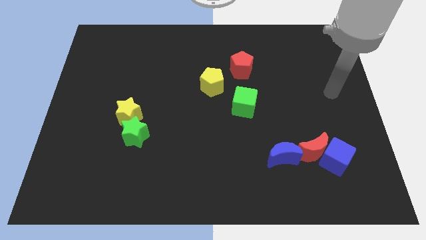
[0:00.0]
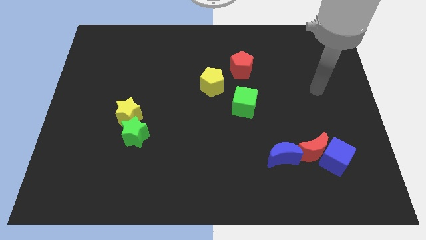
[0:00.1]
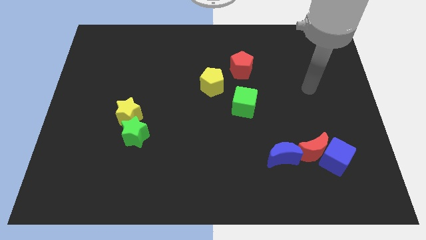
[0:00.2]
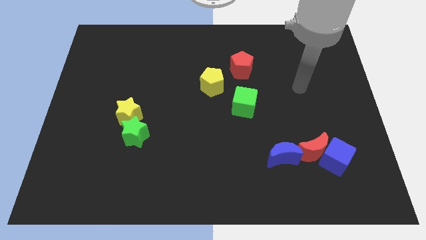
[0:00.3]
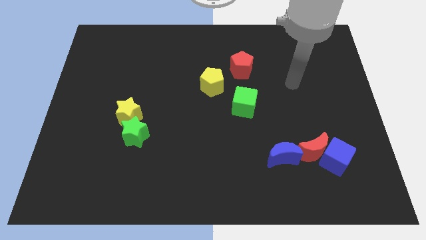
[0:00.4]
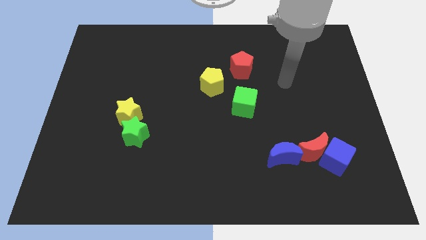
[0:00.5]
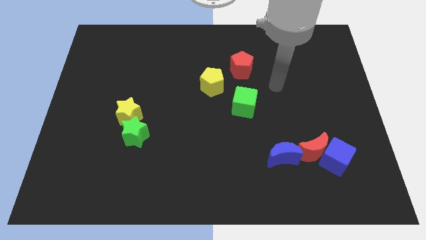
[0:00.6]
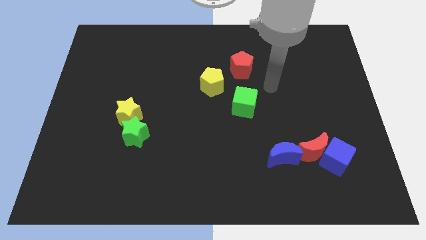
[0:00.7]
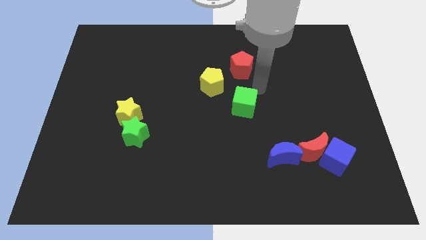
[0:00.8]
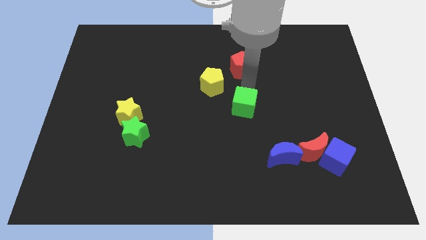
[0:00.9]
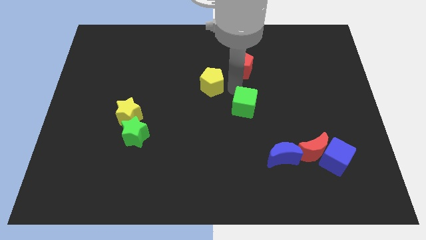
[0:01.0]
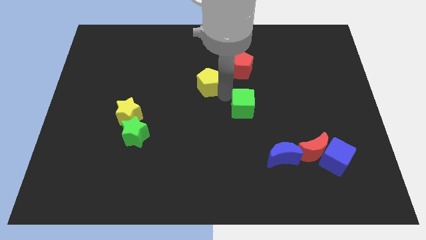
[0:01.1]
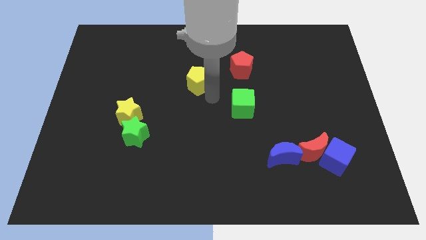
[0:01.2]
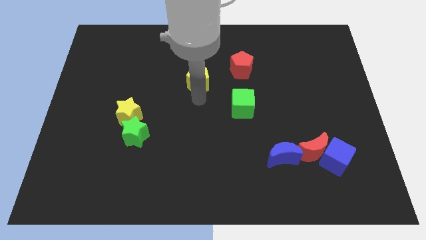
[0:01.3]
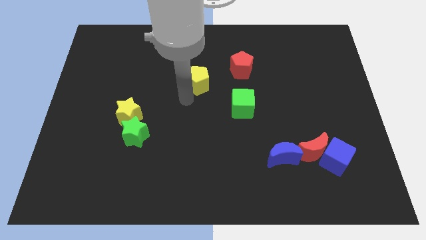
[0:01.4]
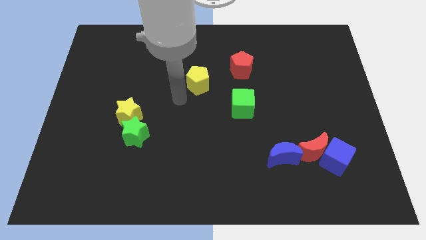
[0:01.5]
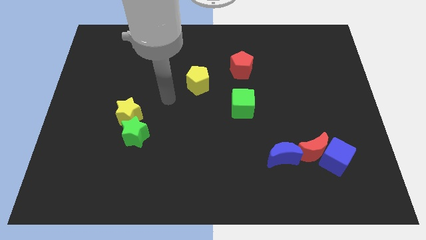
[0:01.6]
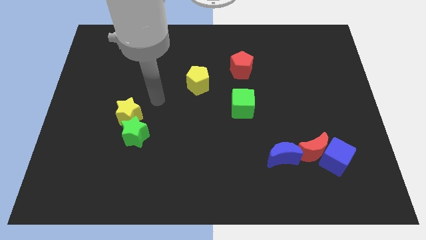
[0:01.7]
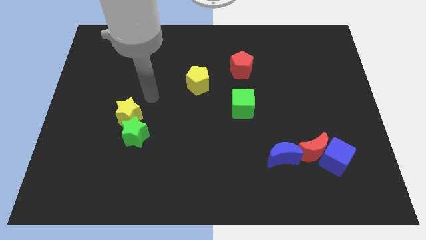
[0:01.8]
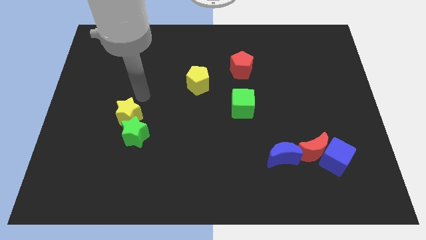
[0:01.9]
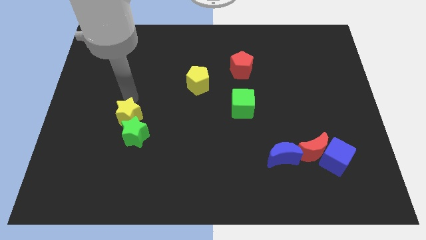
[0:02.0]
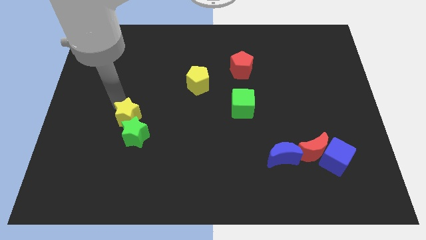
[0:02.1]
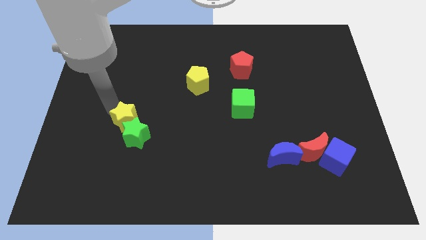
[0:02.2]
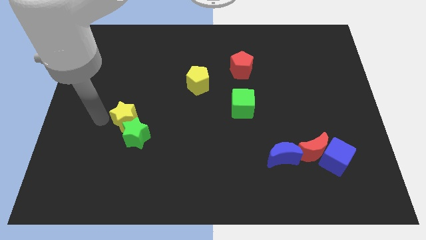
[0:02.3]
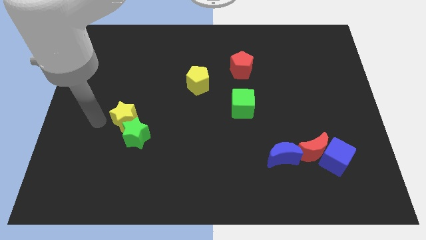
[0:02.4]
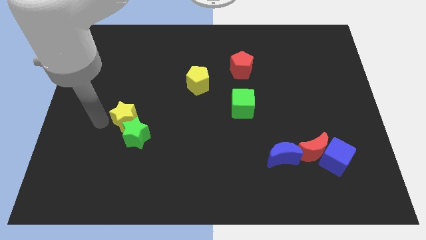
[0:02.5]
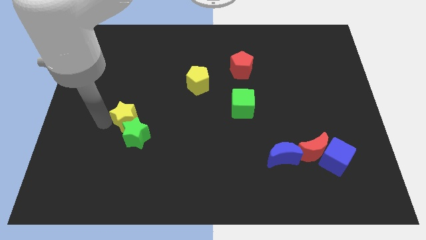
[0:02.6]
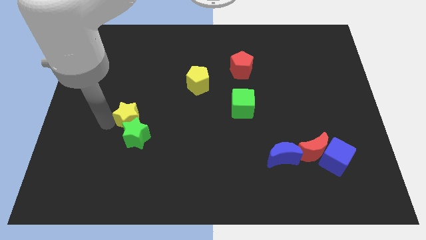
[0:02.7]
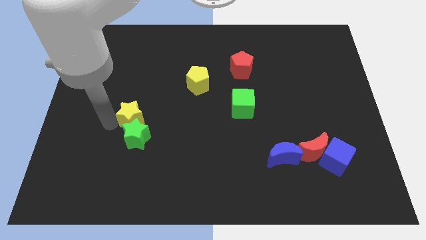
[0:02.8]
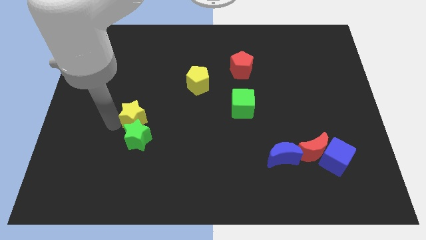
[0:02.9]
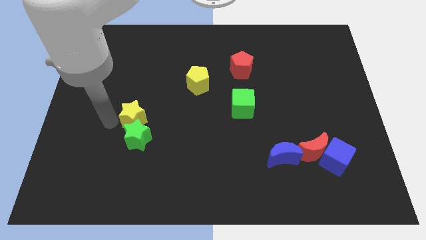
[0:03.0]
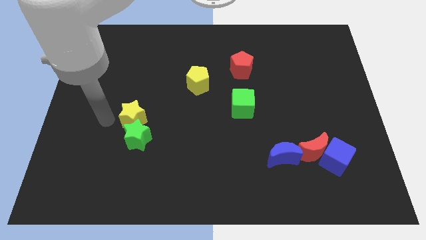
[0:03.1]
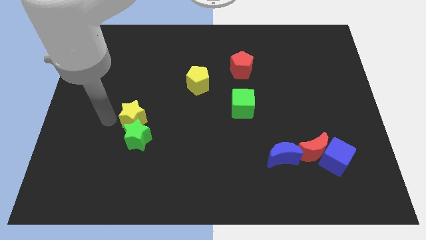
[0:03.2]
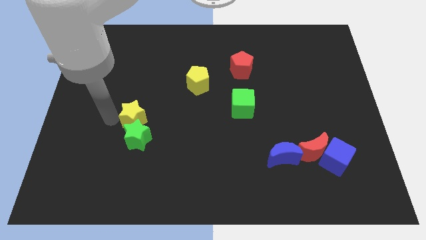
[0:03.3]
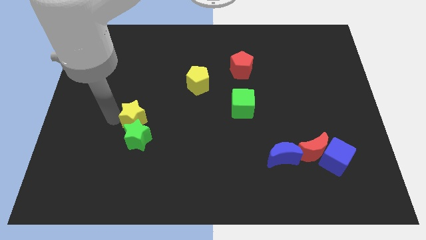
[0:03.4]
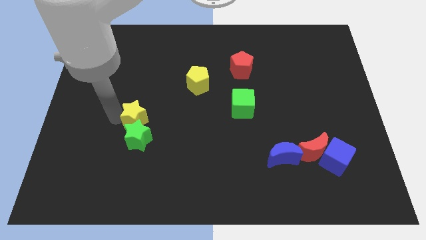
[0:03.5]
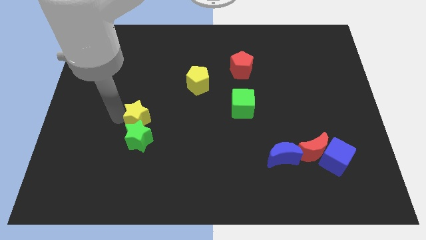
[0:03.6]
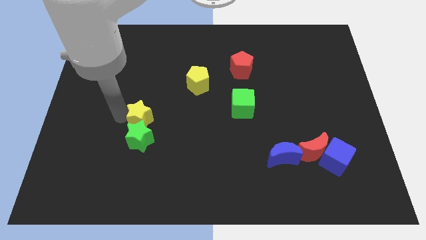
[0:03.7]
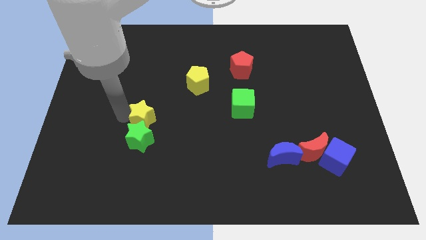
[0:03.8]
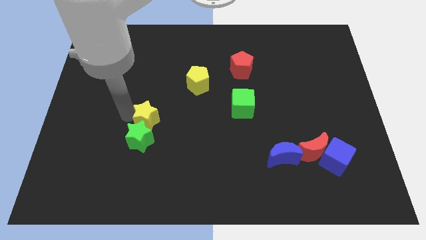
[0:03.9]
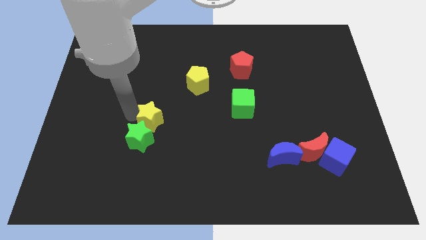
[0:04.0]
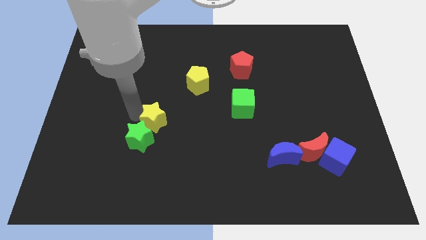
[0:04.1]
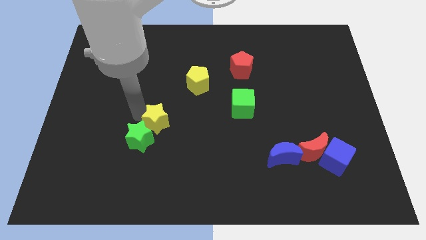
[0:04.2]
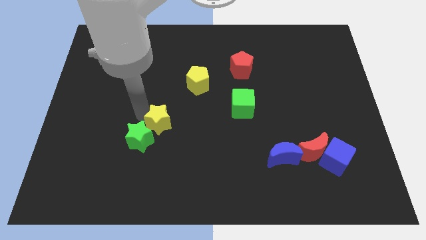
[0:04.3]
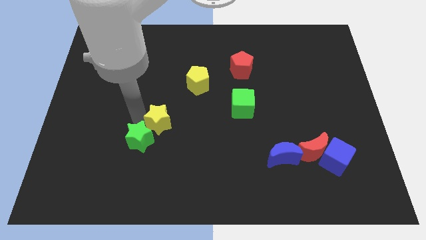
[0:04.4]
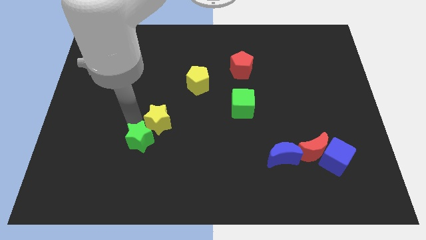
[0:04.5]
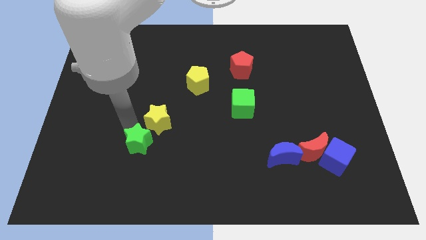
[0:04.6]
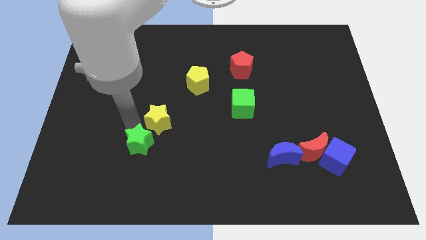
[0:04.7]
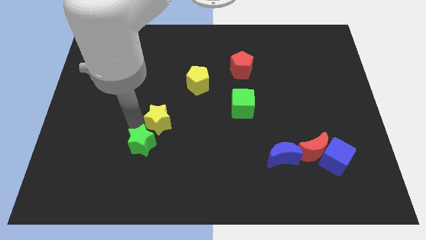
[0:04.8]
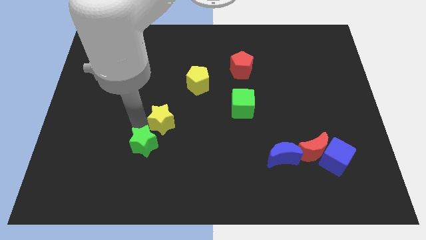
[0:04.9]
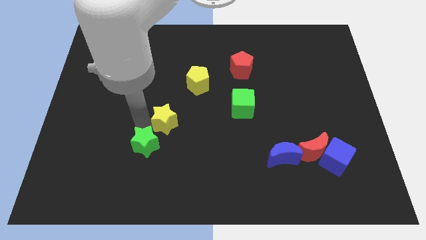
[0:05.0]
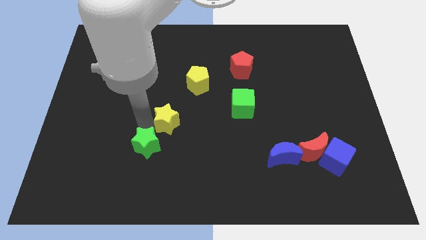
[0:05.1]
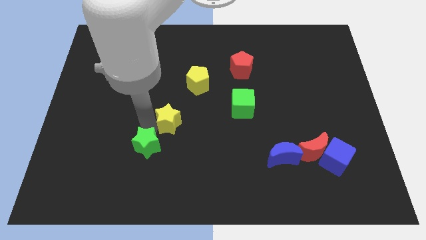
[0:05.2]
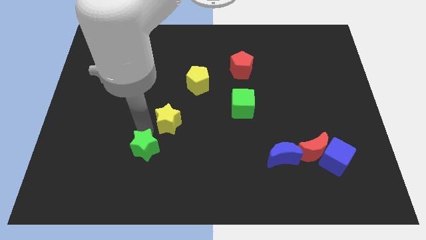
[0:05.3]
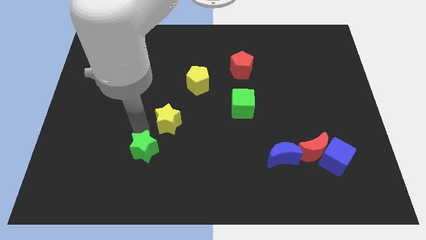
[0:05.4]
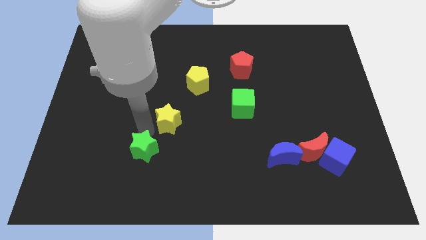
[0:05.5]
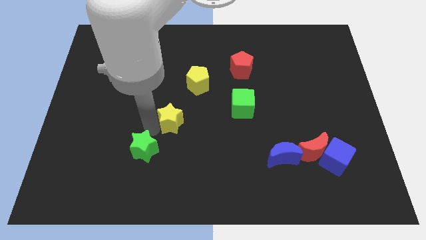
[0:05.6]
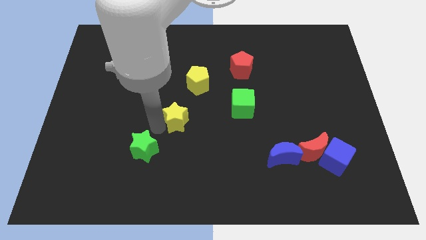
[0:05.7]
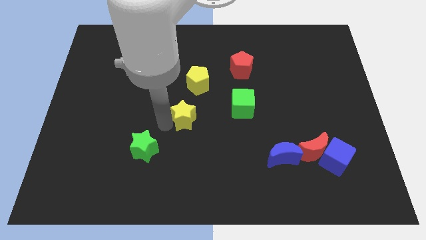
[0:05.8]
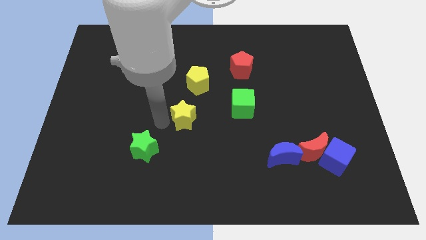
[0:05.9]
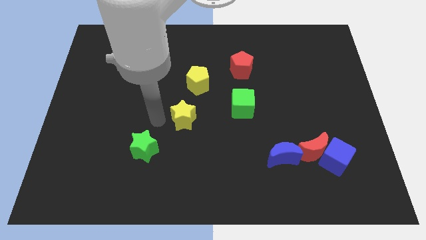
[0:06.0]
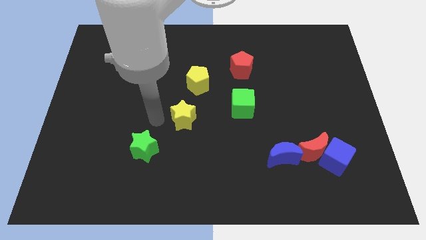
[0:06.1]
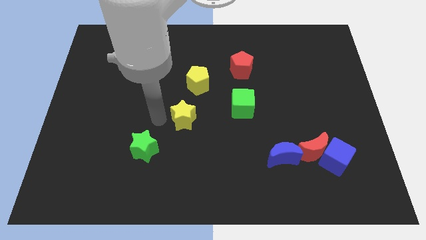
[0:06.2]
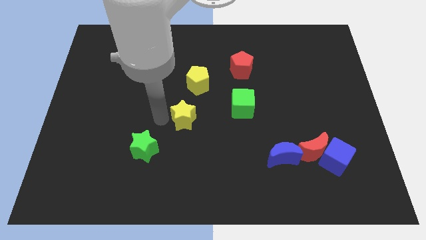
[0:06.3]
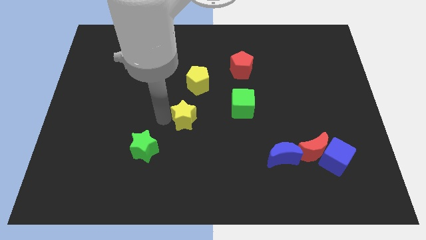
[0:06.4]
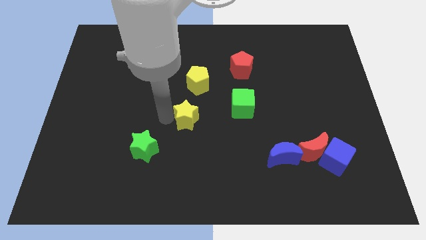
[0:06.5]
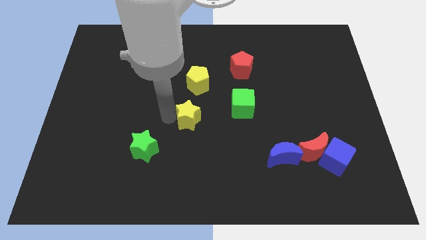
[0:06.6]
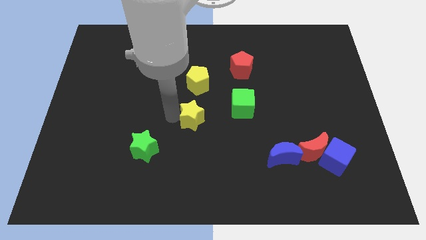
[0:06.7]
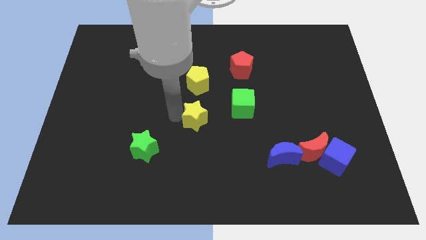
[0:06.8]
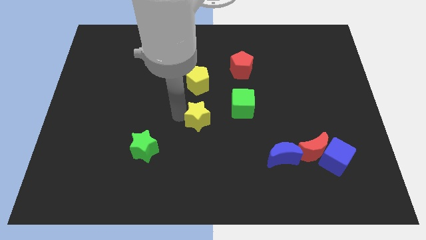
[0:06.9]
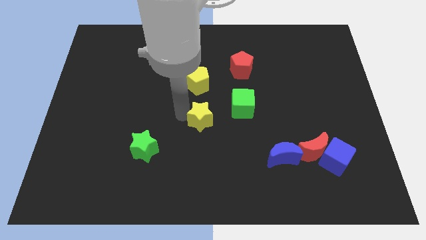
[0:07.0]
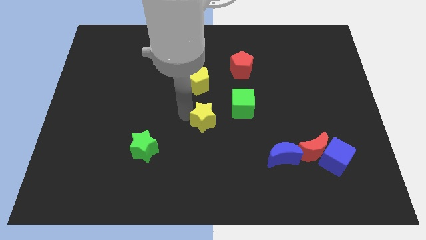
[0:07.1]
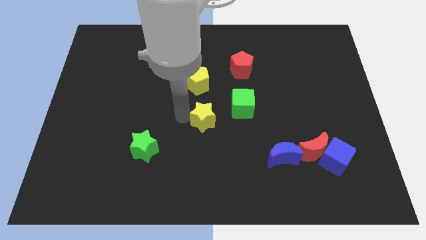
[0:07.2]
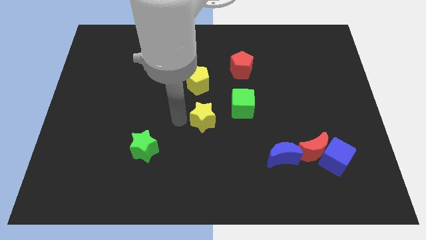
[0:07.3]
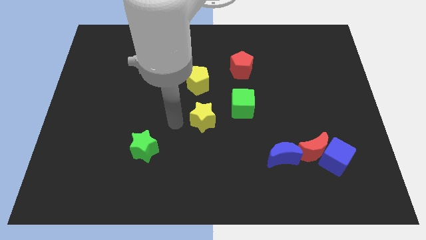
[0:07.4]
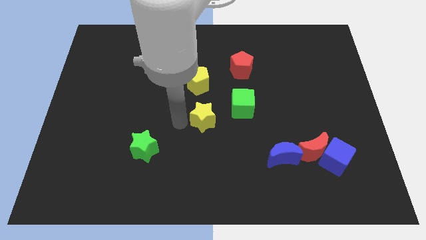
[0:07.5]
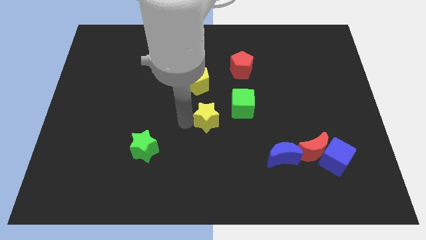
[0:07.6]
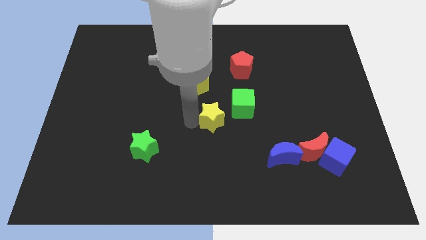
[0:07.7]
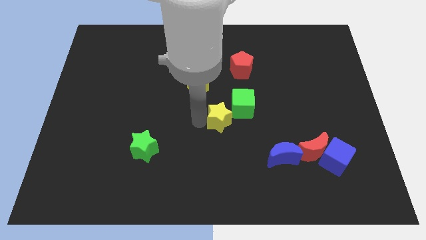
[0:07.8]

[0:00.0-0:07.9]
slide the yellow star to the right

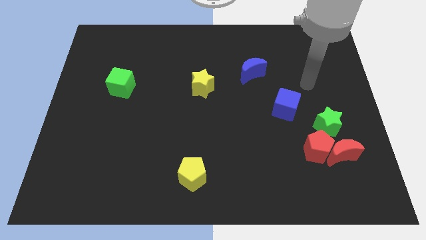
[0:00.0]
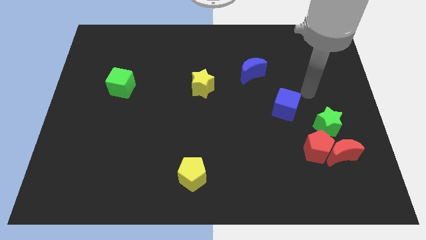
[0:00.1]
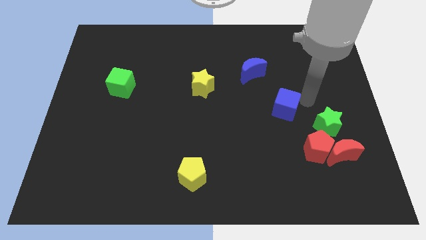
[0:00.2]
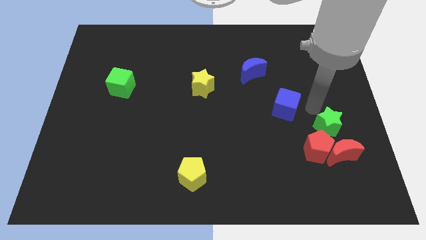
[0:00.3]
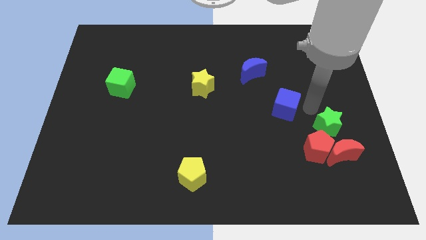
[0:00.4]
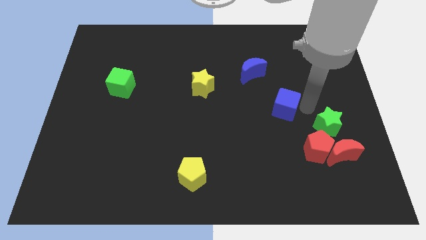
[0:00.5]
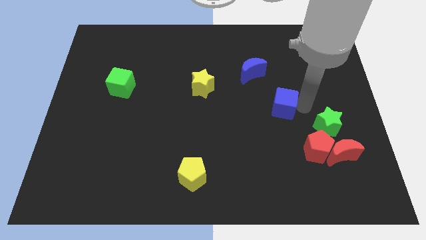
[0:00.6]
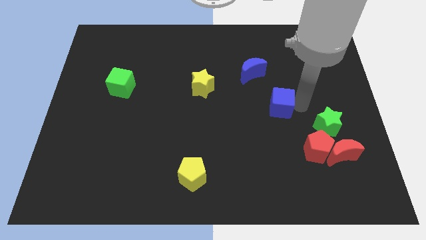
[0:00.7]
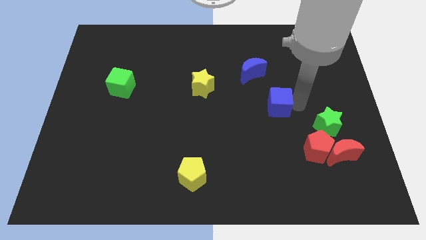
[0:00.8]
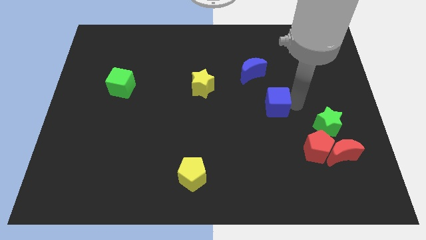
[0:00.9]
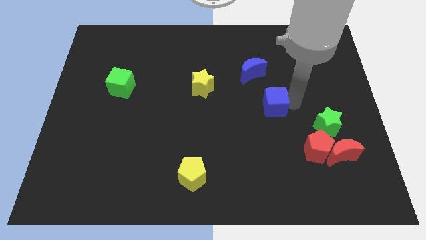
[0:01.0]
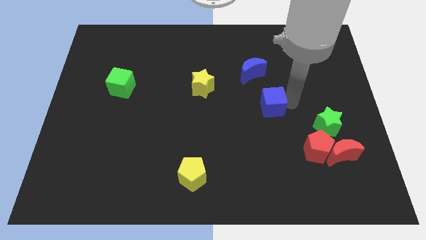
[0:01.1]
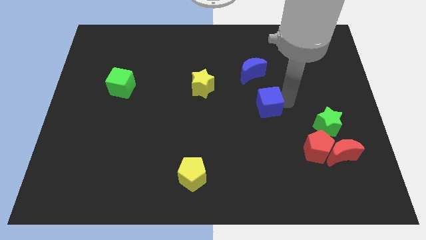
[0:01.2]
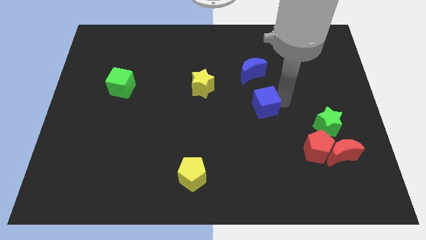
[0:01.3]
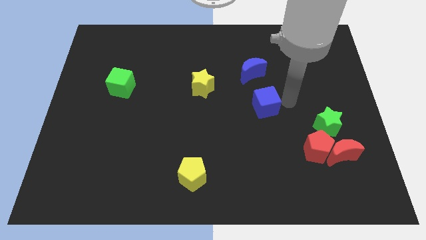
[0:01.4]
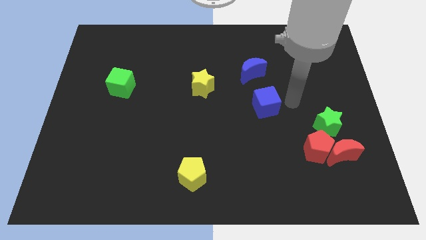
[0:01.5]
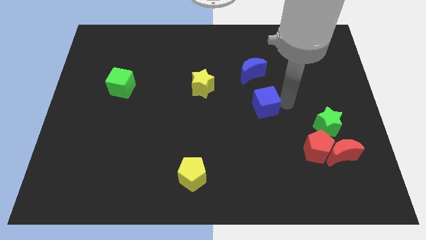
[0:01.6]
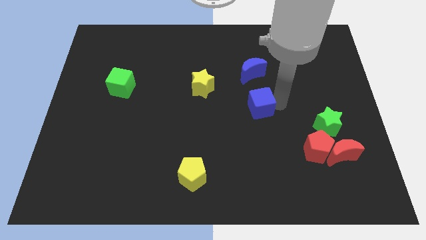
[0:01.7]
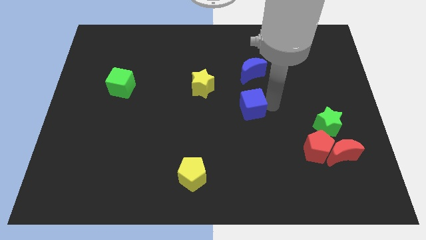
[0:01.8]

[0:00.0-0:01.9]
move the blue cube left a little bit
